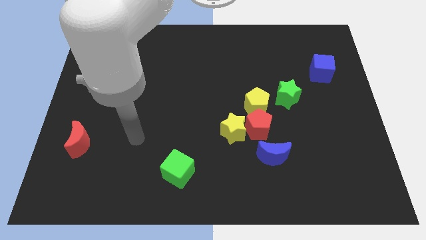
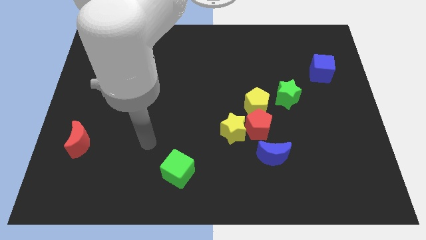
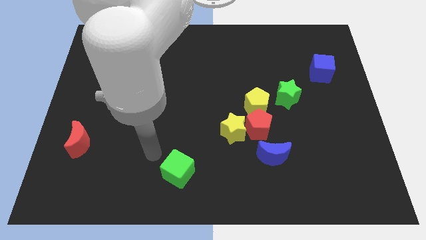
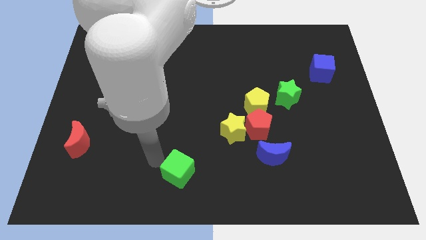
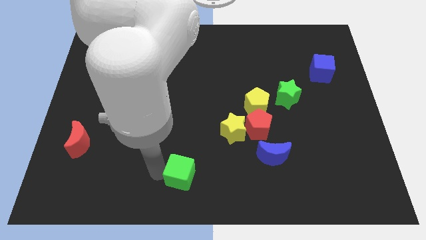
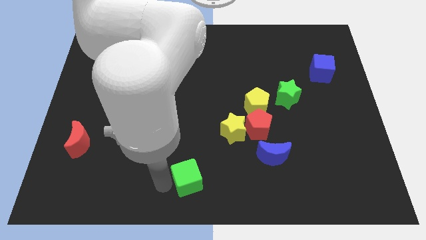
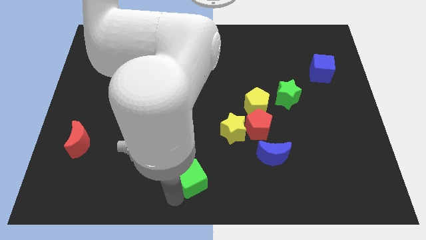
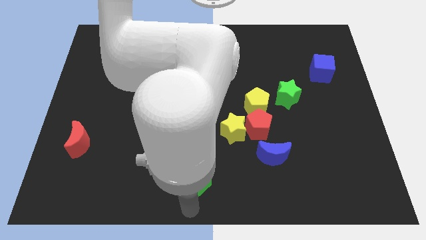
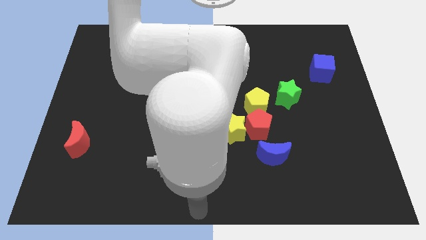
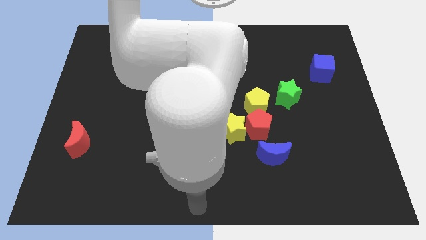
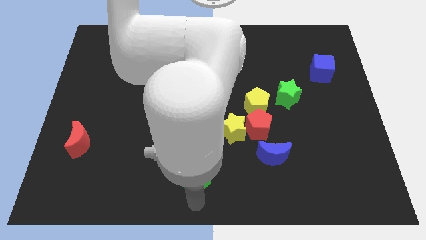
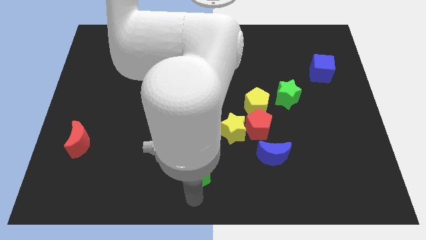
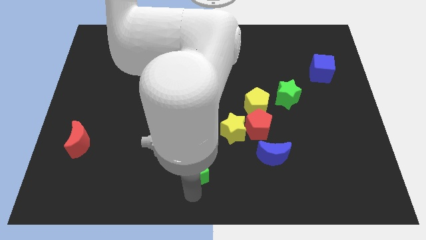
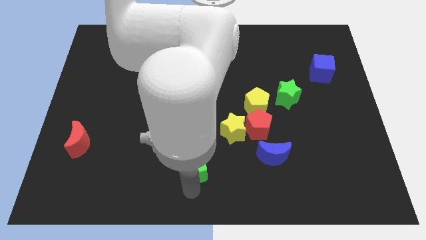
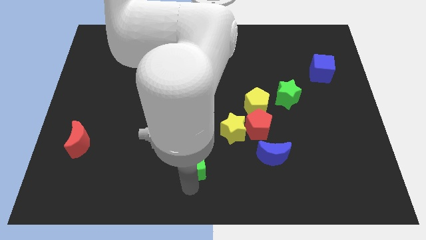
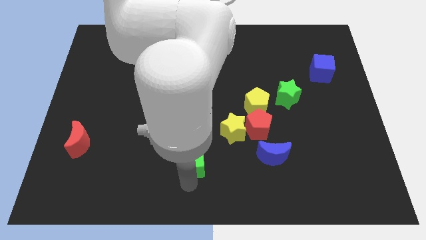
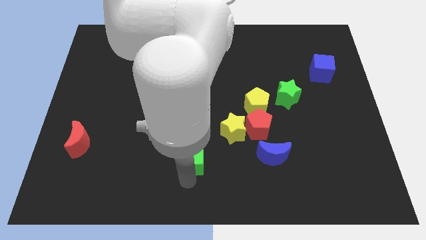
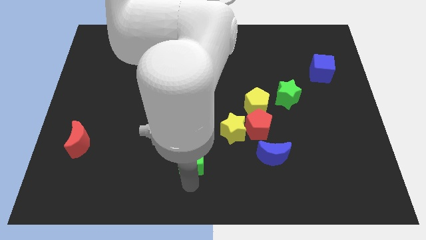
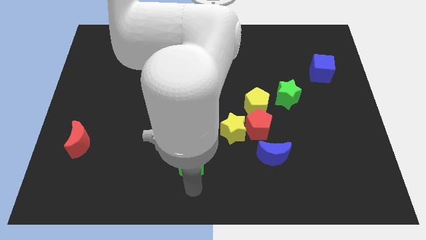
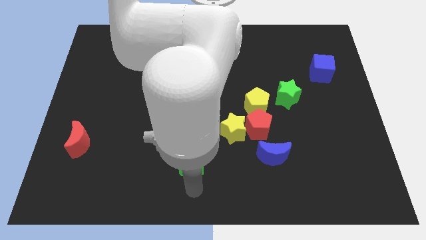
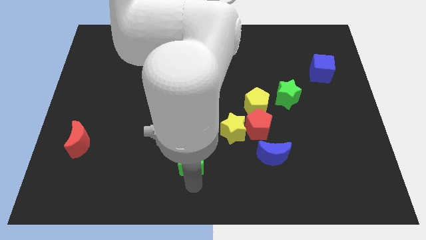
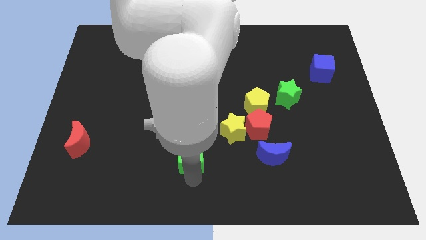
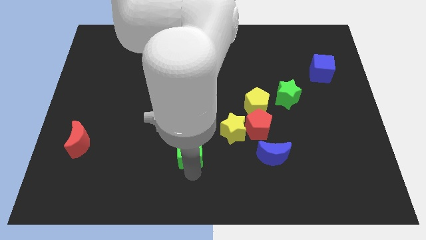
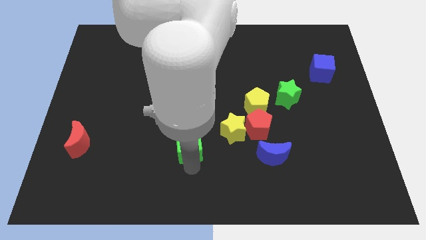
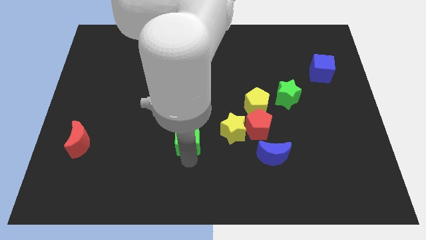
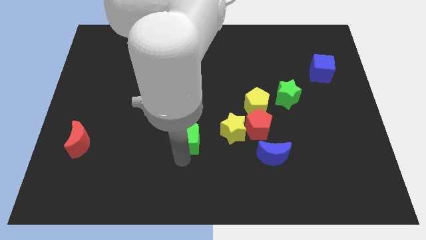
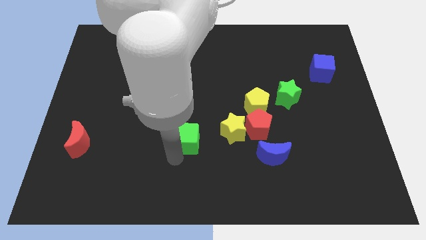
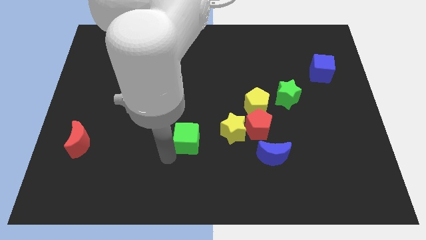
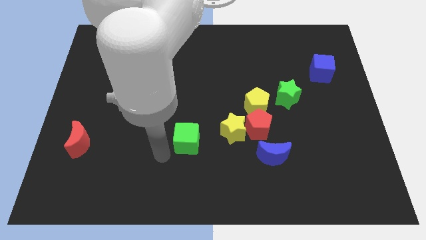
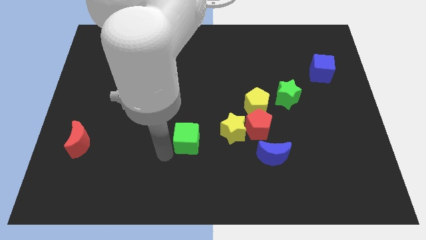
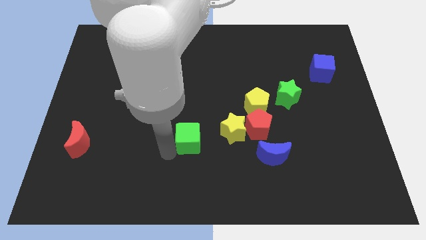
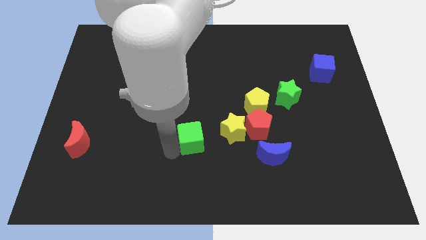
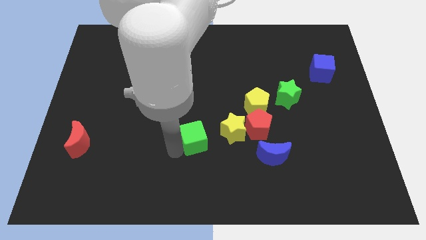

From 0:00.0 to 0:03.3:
slide the green cube up and then right a little bit

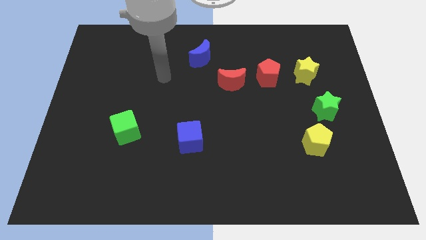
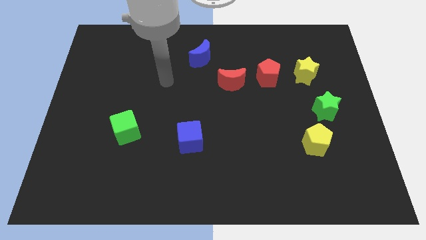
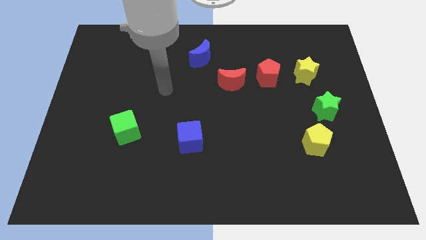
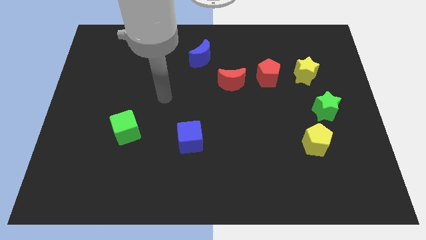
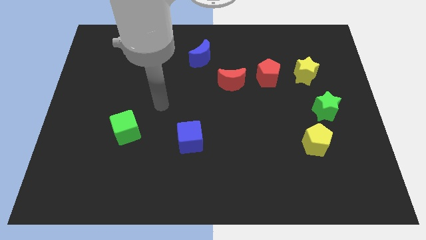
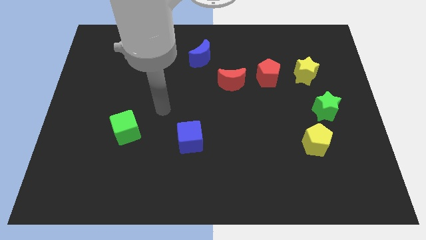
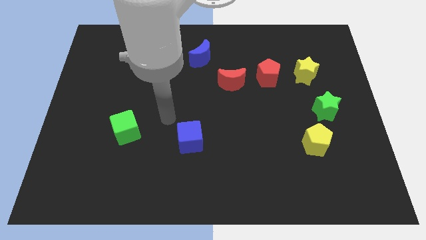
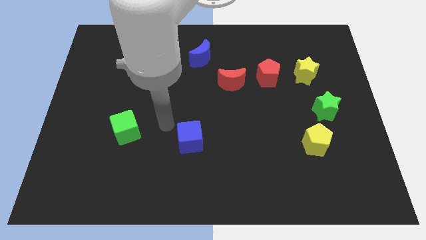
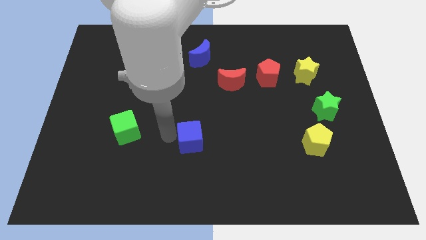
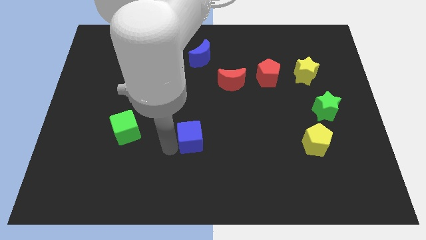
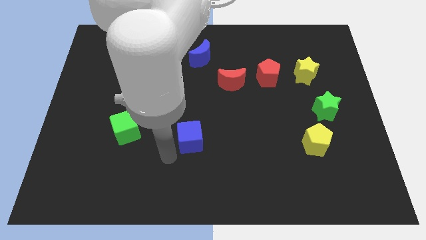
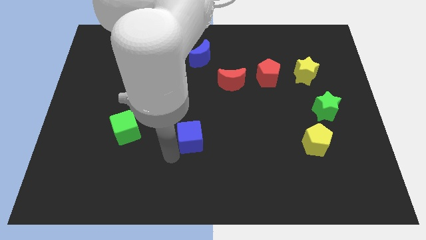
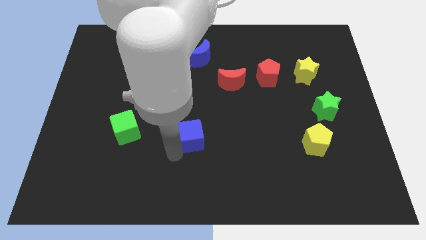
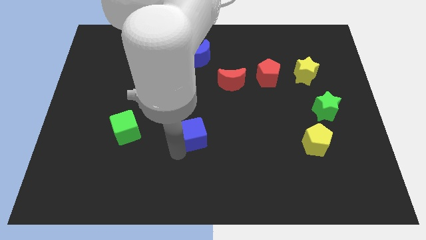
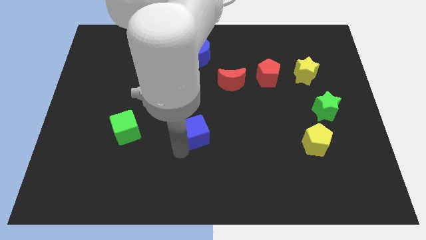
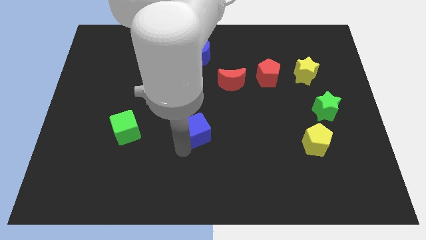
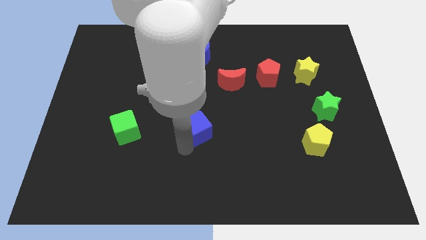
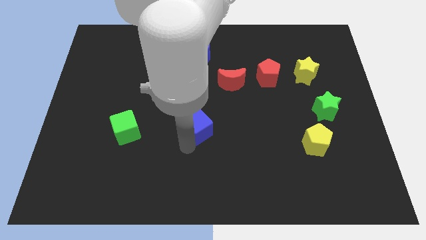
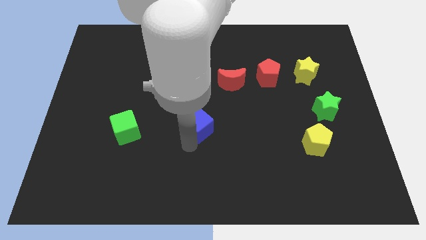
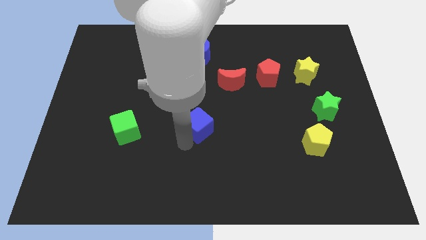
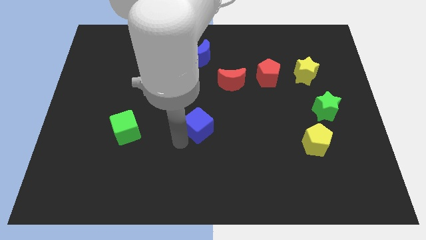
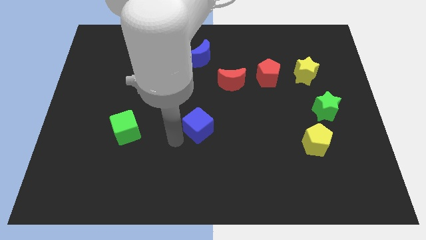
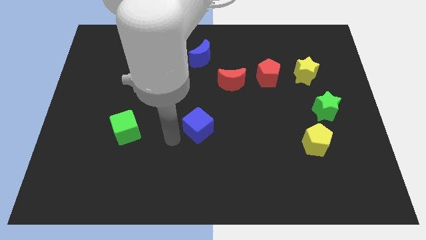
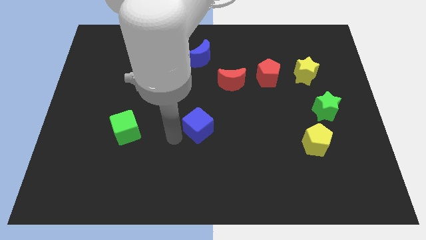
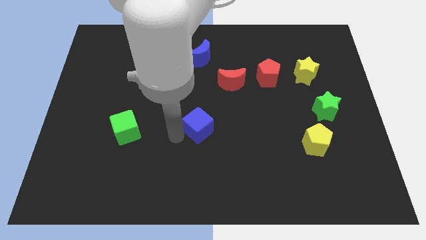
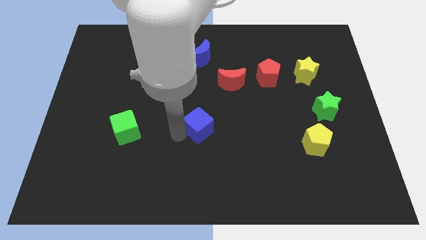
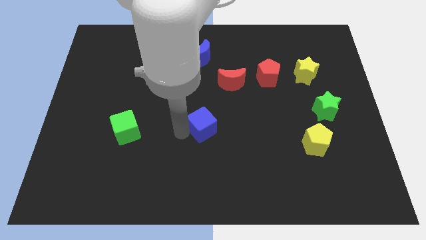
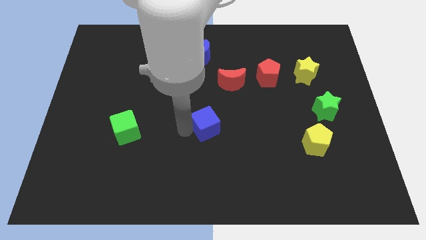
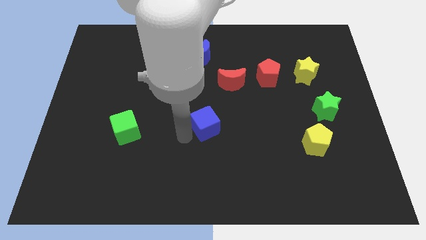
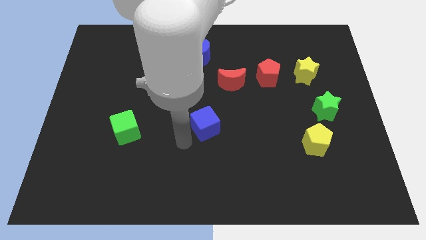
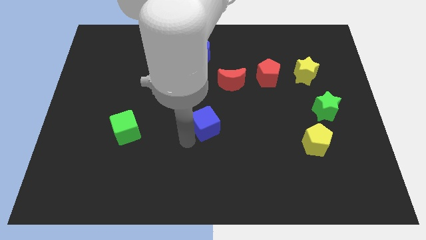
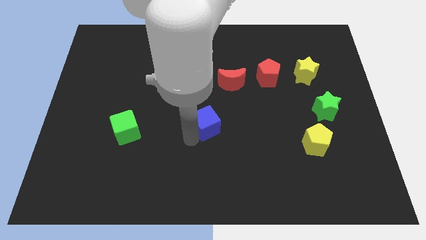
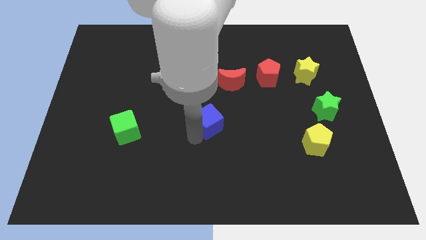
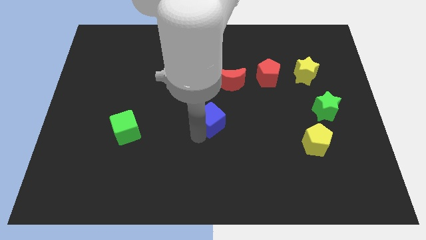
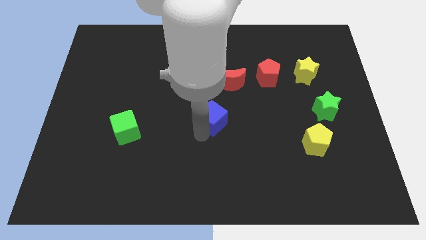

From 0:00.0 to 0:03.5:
push the blue cube diagonally up and right a little bit

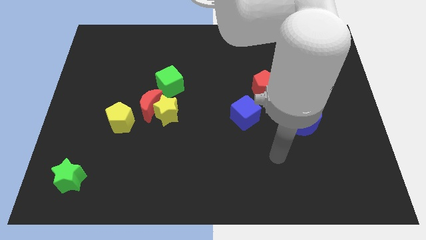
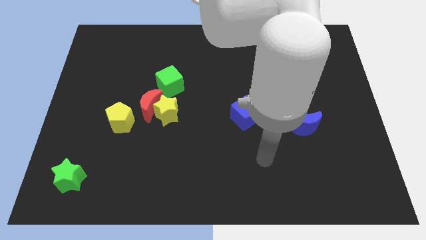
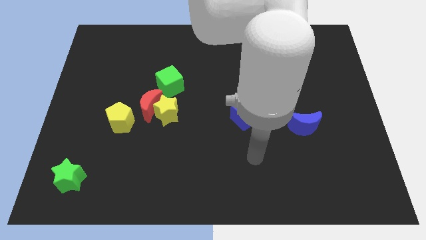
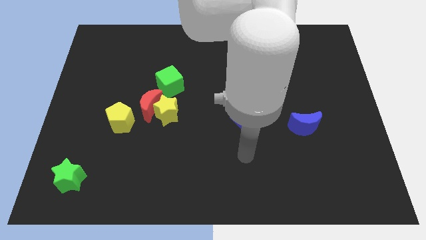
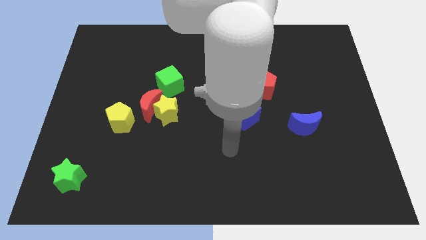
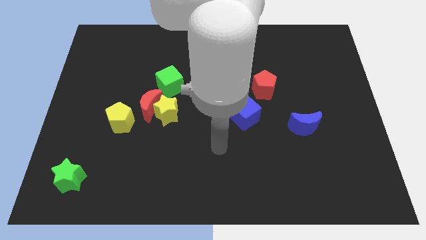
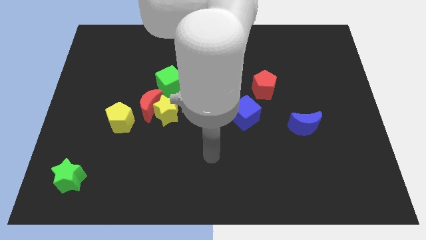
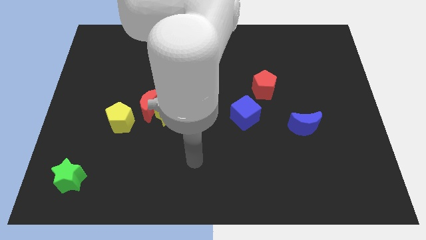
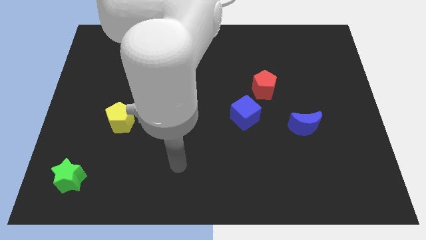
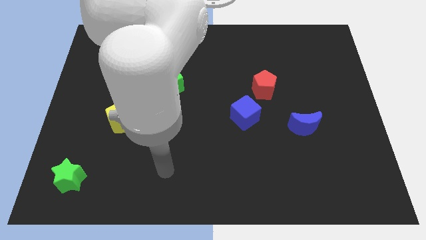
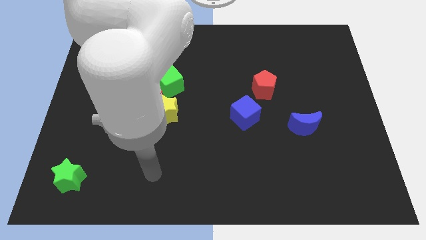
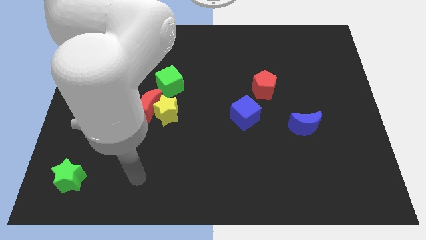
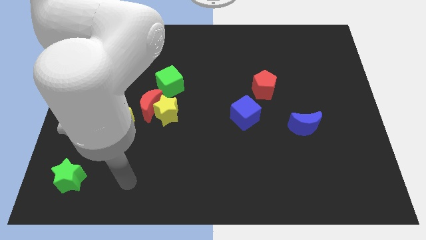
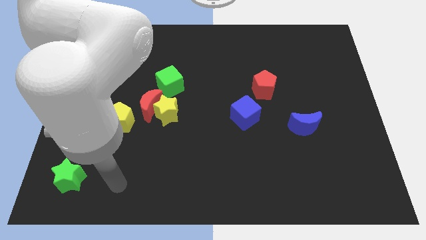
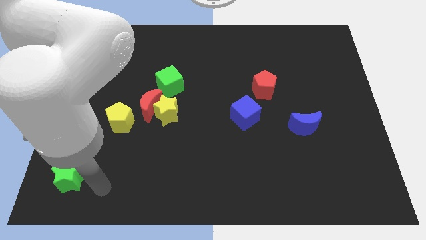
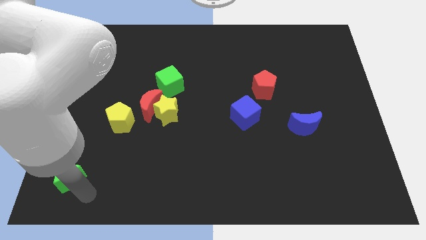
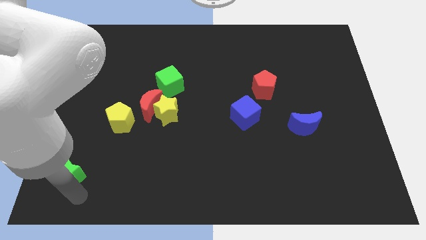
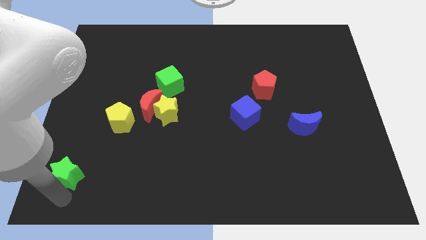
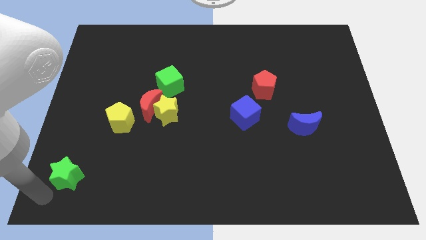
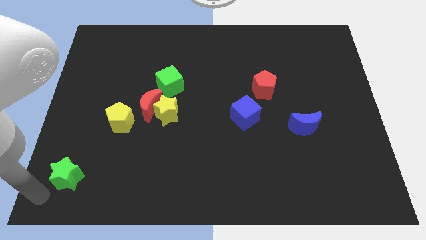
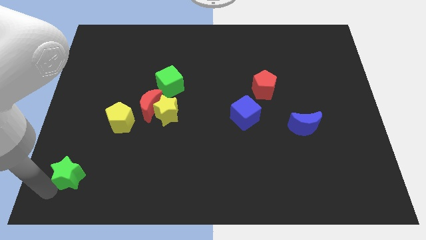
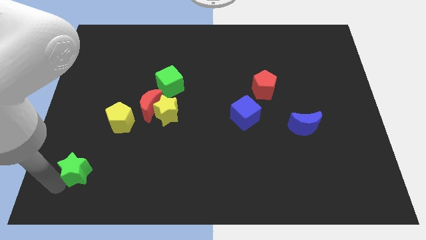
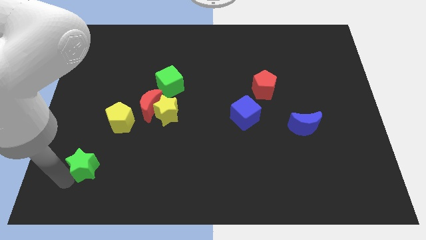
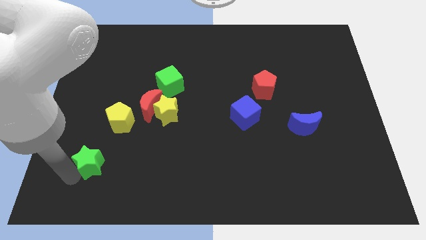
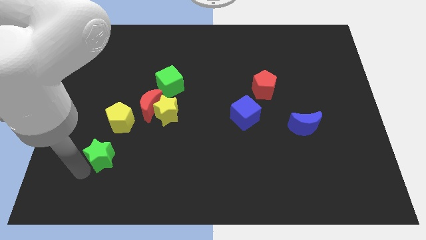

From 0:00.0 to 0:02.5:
slightly push the green star upwards and right
